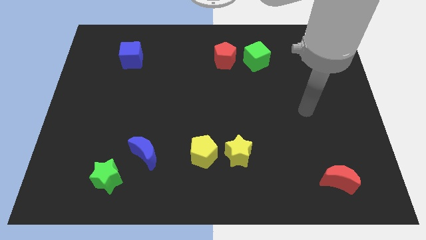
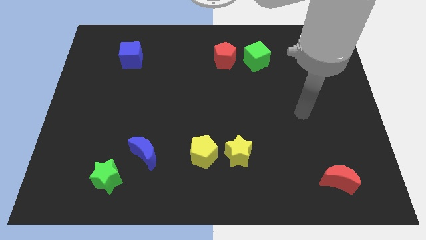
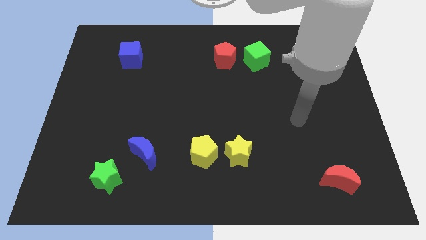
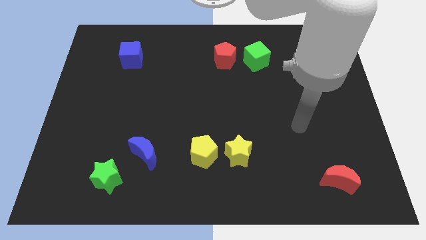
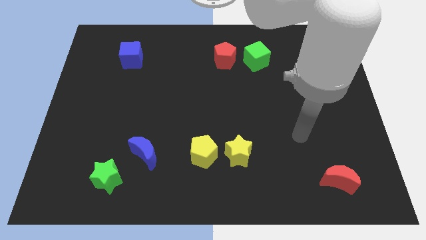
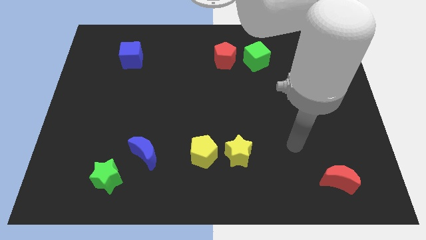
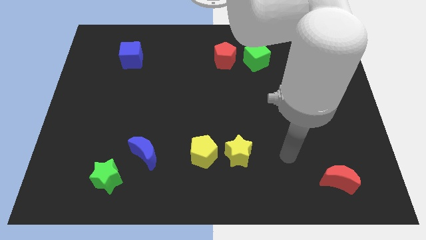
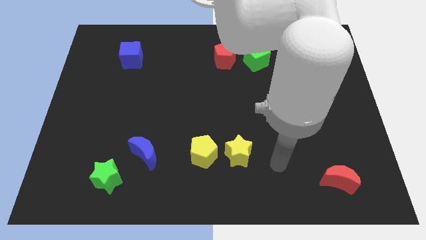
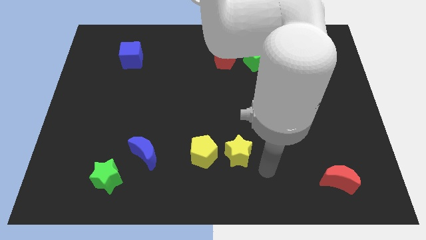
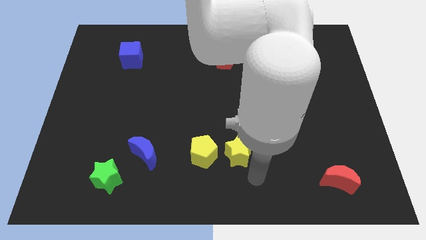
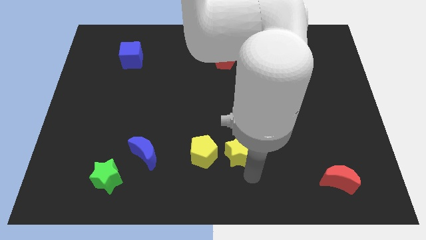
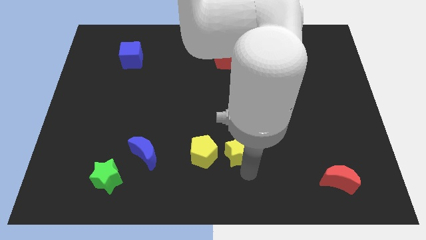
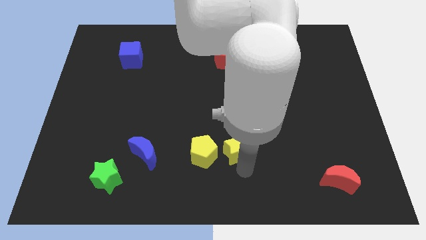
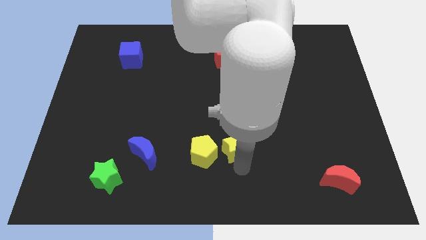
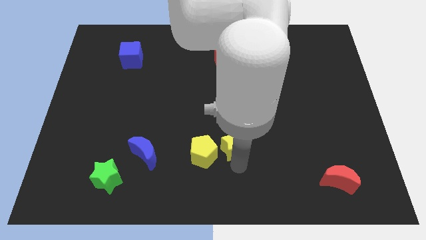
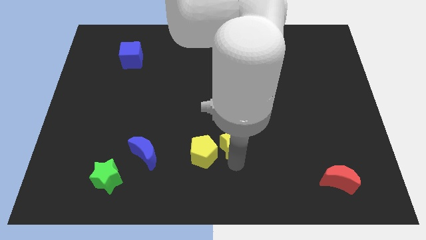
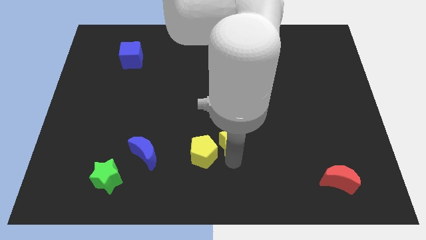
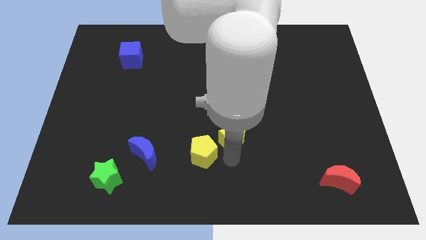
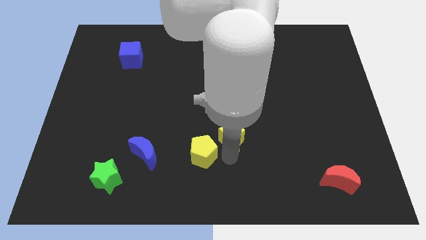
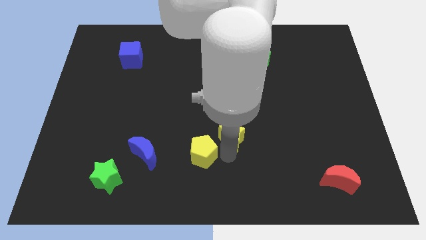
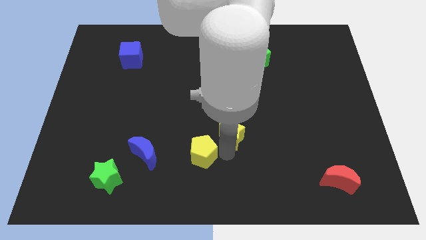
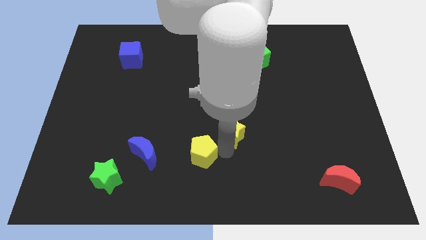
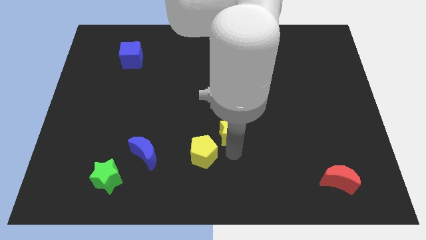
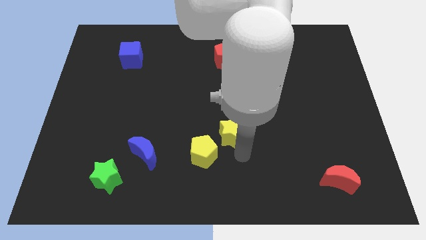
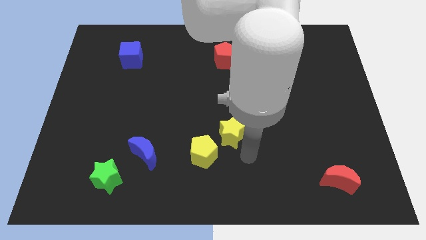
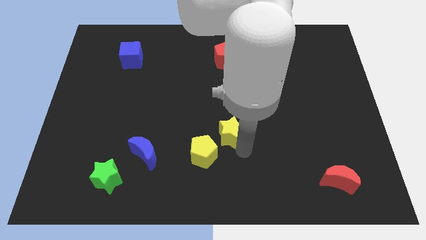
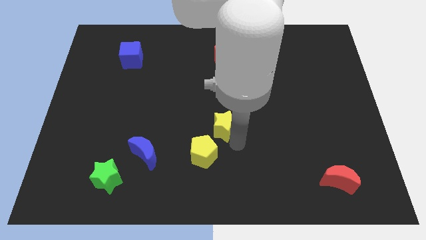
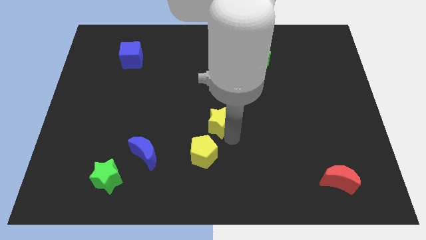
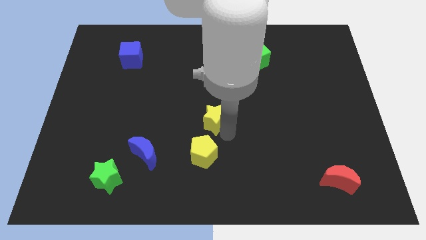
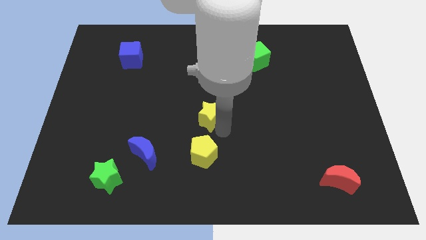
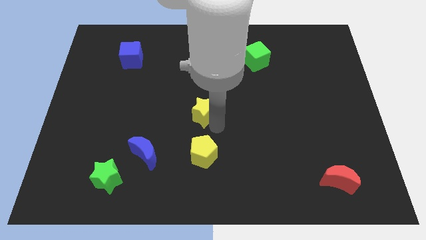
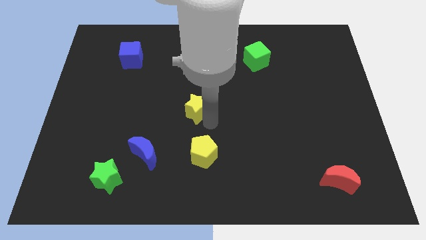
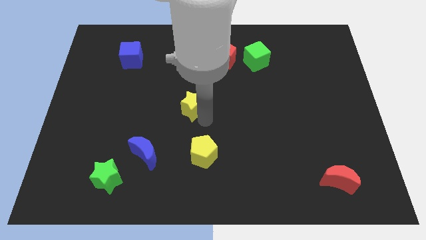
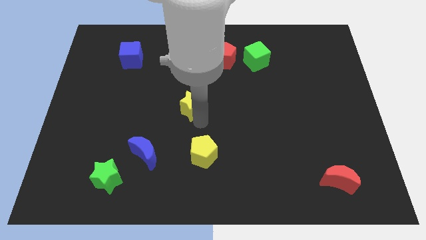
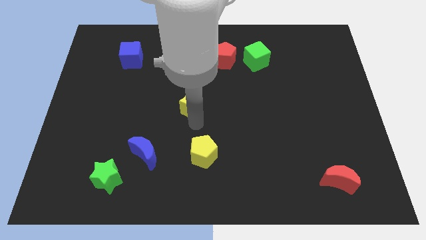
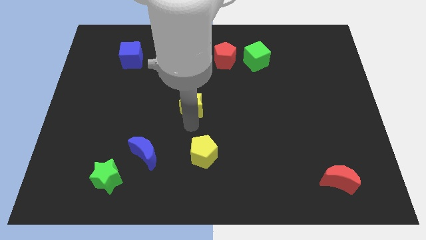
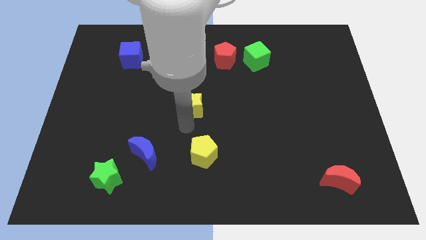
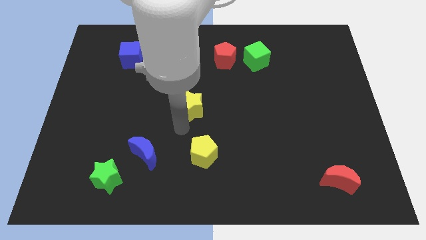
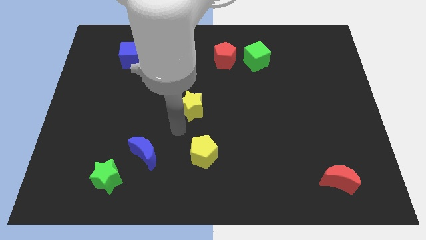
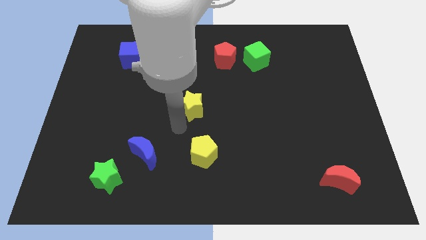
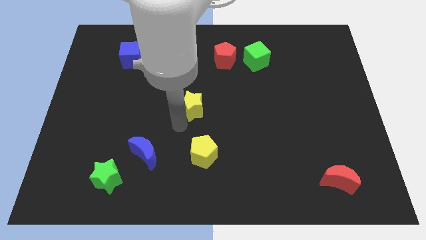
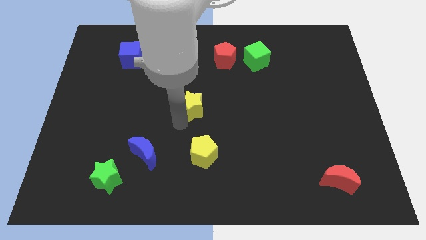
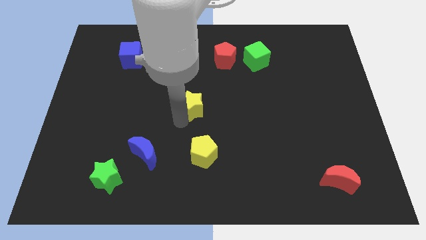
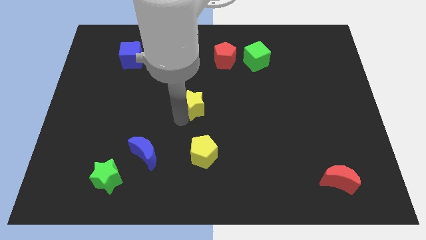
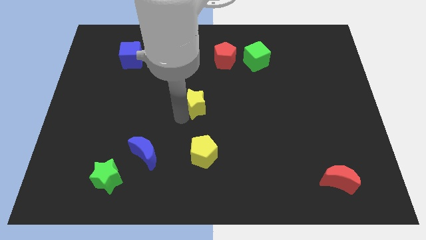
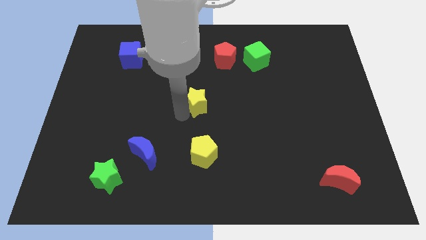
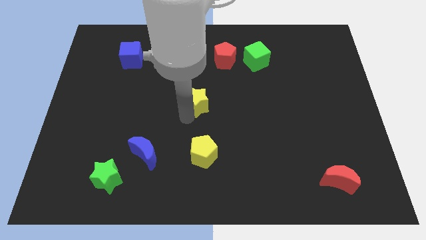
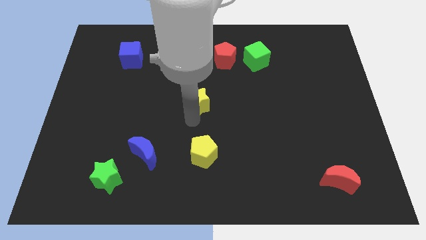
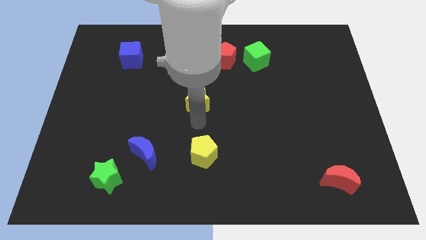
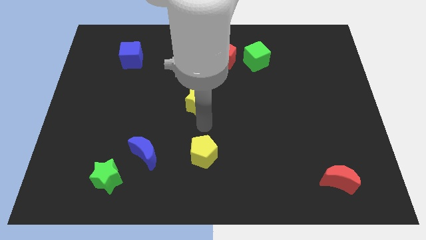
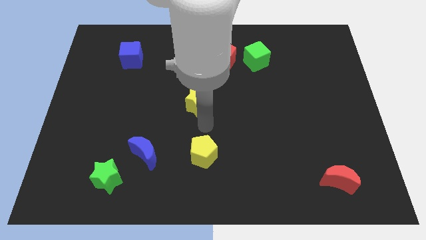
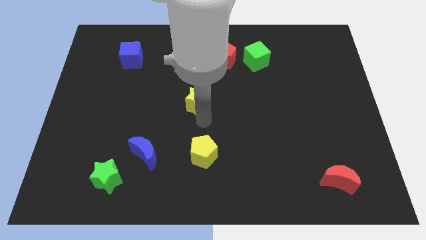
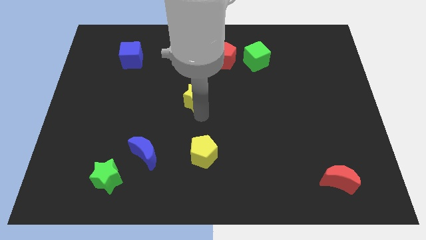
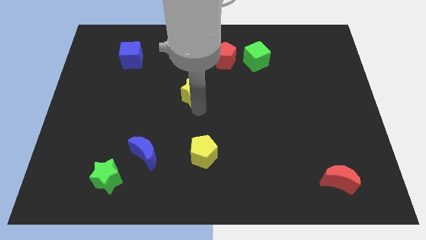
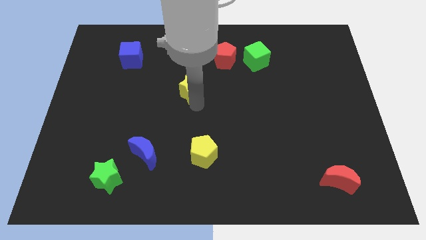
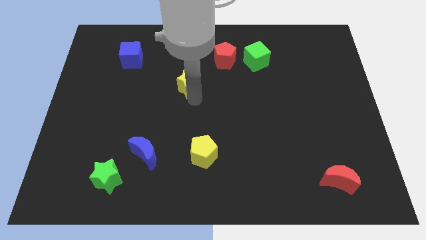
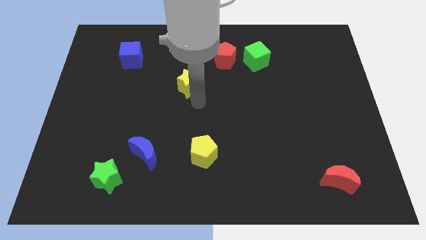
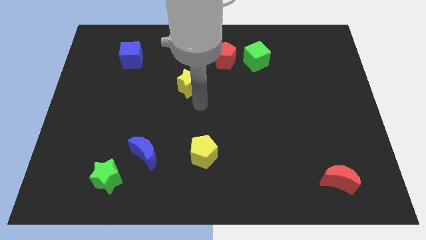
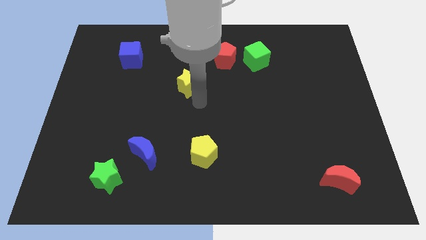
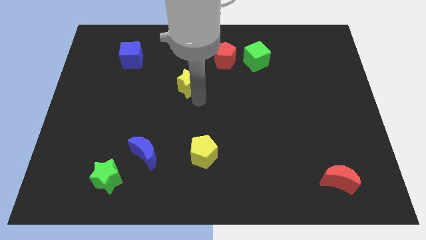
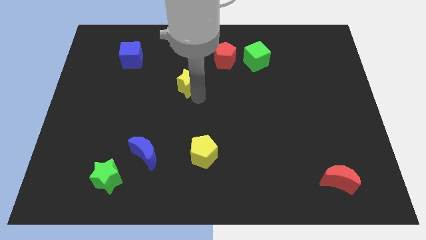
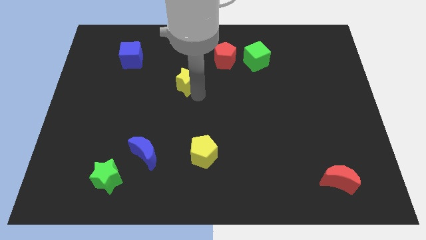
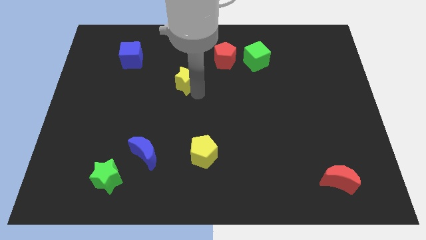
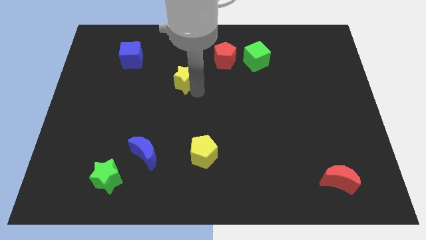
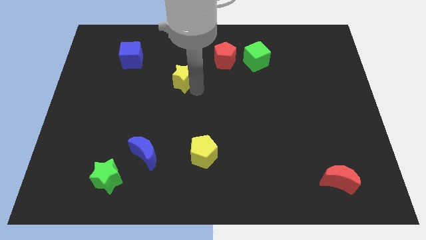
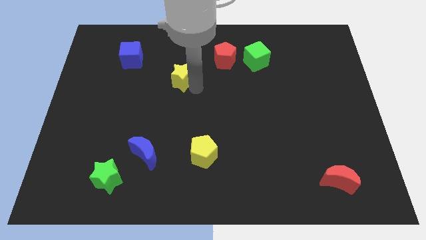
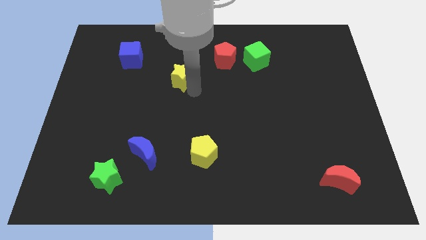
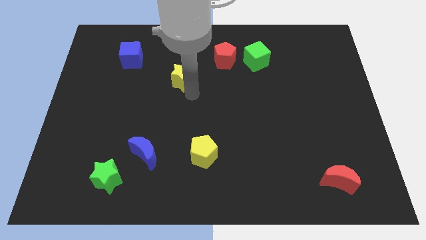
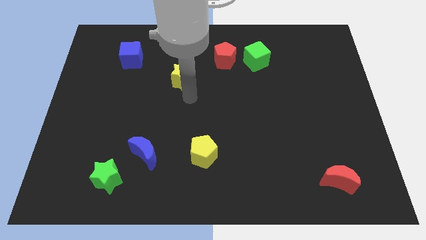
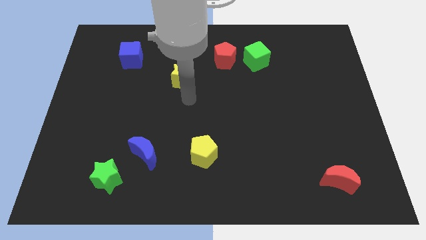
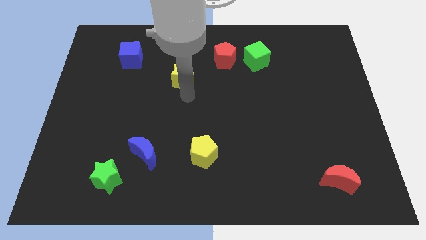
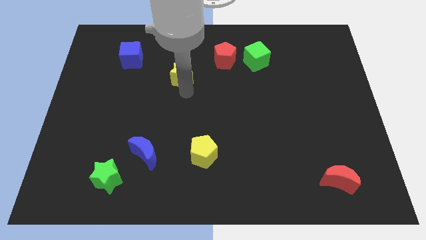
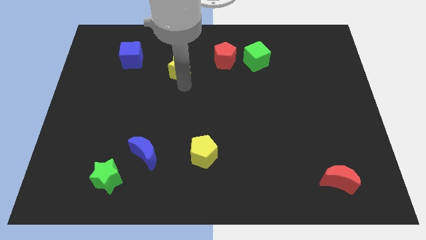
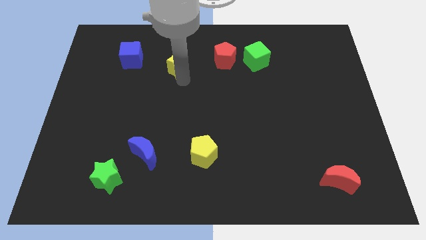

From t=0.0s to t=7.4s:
put the yellow star to the right of the blue cube
